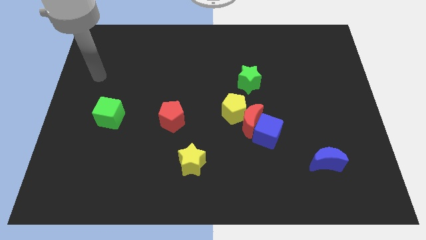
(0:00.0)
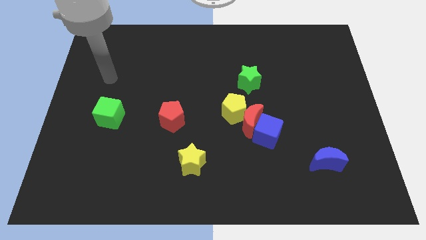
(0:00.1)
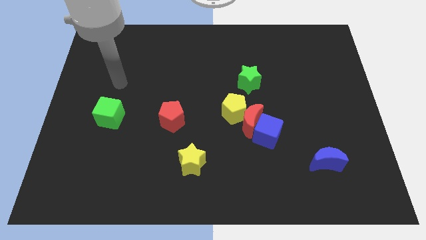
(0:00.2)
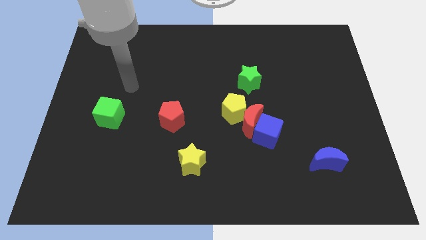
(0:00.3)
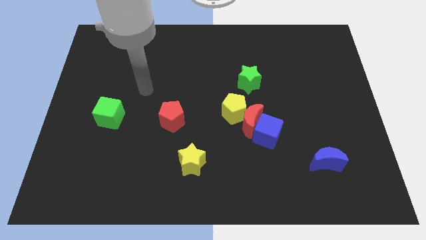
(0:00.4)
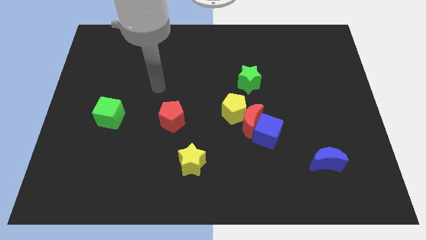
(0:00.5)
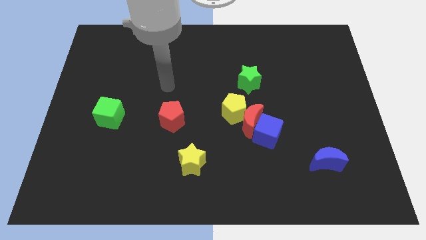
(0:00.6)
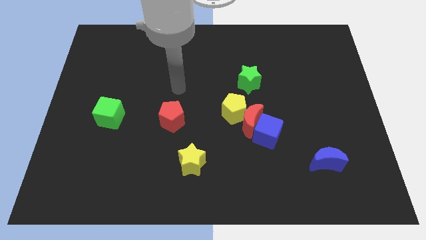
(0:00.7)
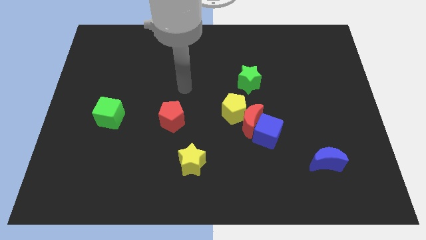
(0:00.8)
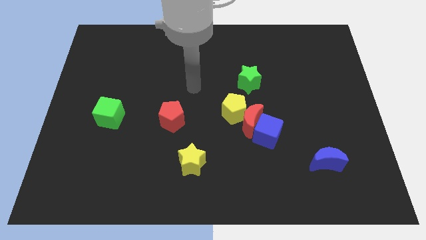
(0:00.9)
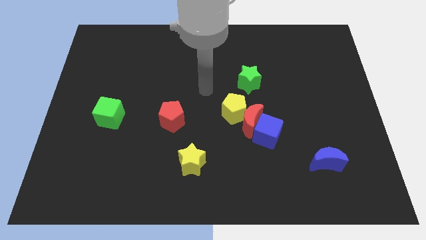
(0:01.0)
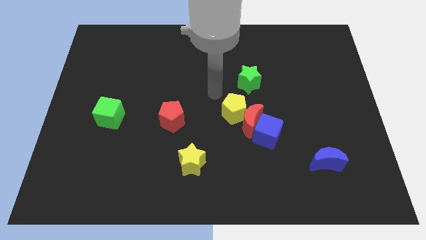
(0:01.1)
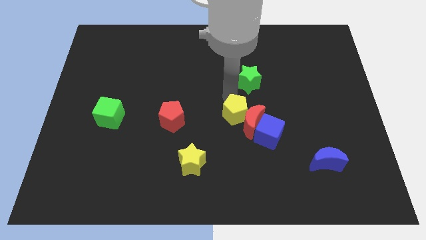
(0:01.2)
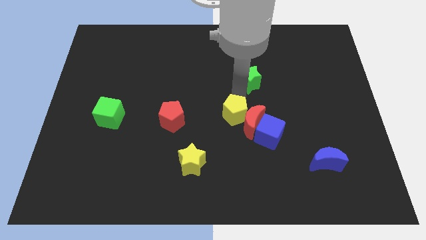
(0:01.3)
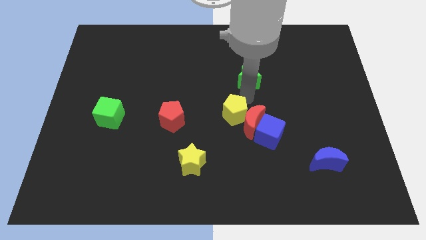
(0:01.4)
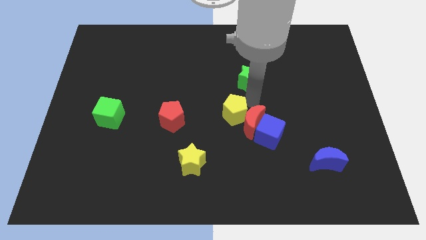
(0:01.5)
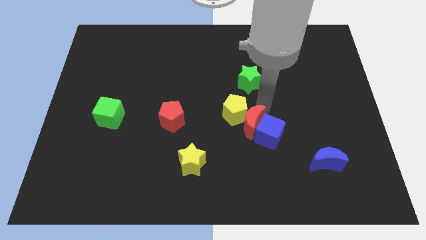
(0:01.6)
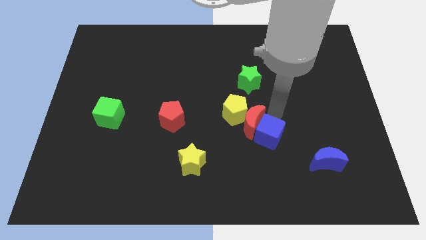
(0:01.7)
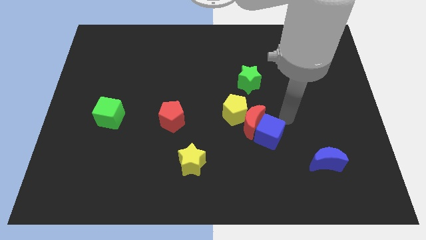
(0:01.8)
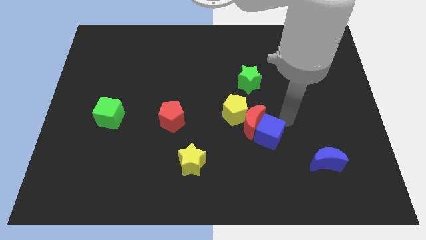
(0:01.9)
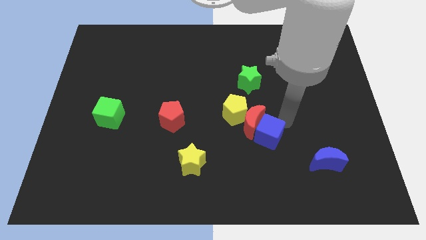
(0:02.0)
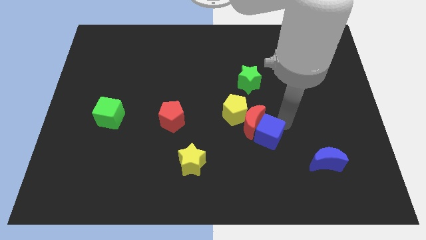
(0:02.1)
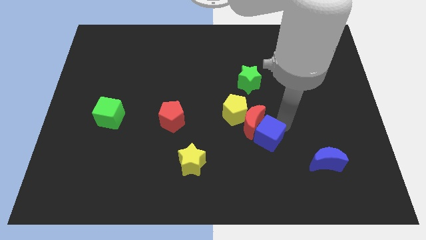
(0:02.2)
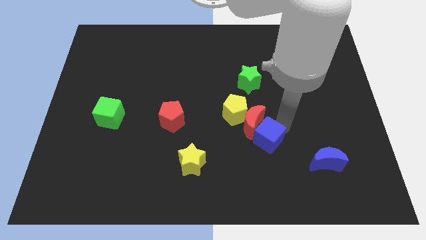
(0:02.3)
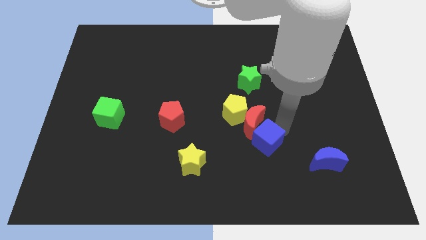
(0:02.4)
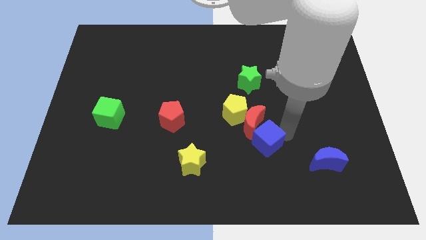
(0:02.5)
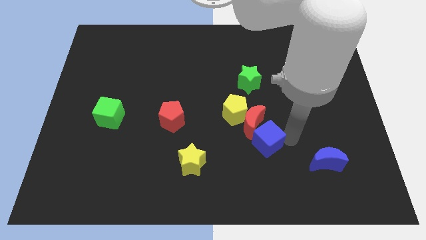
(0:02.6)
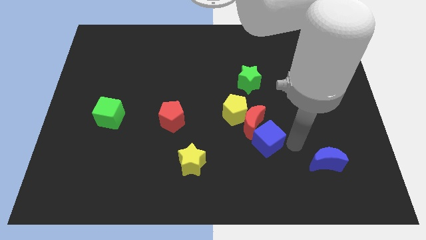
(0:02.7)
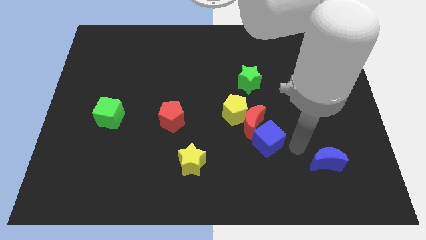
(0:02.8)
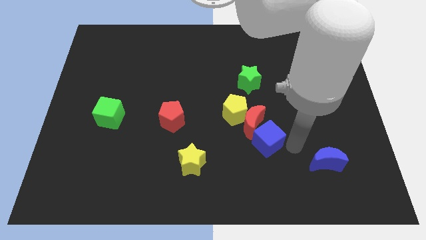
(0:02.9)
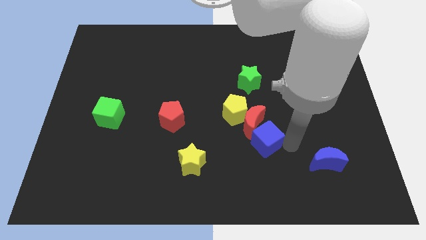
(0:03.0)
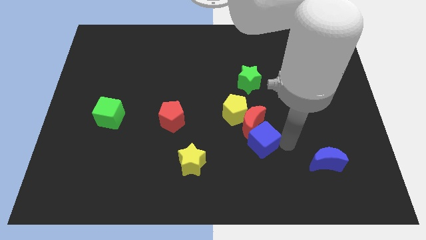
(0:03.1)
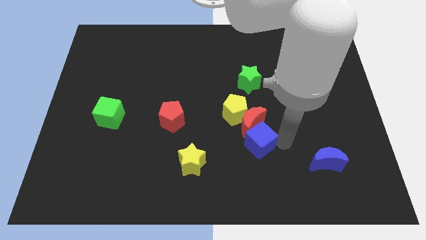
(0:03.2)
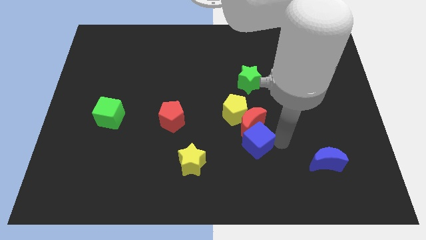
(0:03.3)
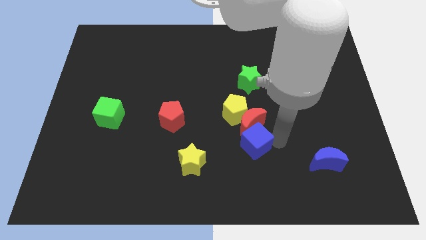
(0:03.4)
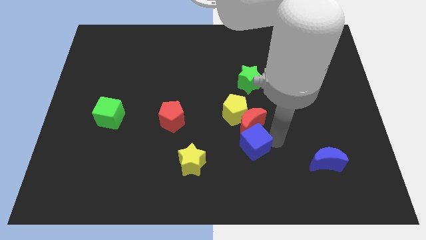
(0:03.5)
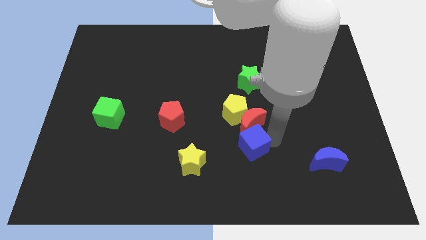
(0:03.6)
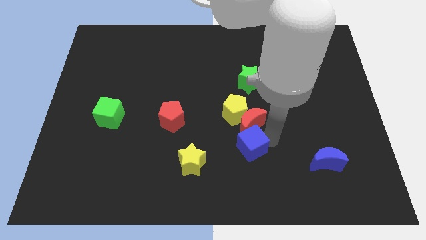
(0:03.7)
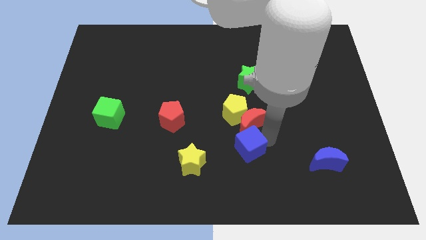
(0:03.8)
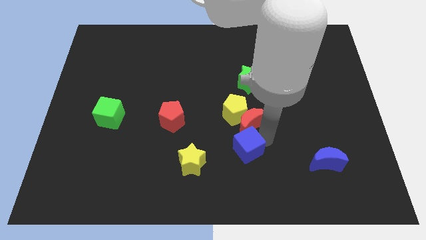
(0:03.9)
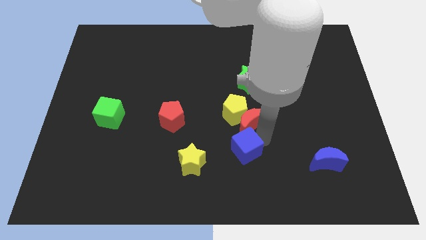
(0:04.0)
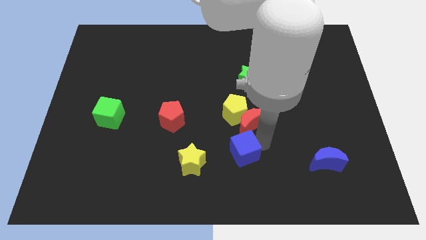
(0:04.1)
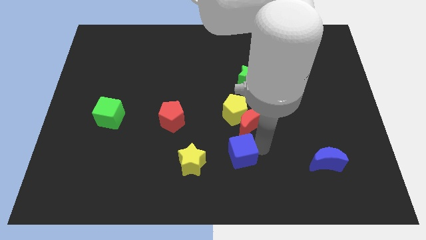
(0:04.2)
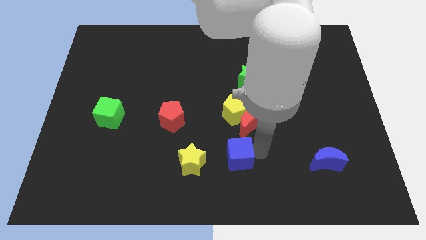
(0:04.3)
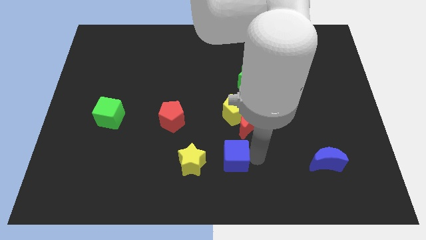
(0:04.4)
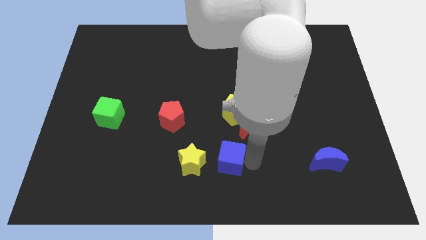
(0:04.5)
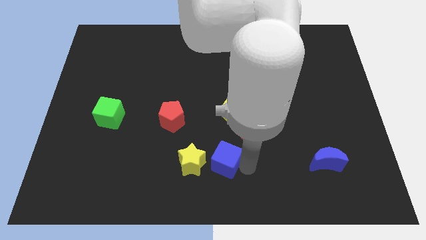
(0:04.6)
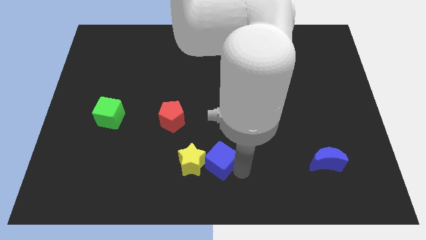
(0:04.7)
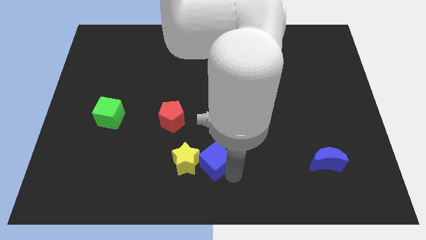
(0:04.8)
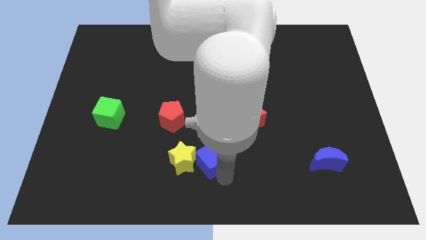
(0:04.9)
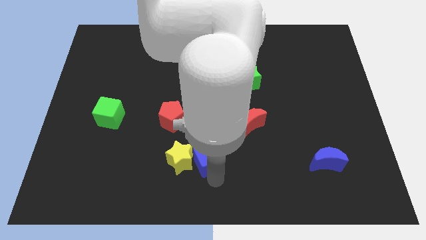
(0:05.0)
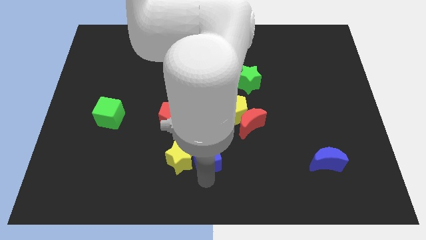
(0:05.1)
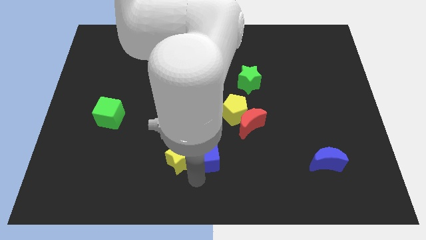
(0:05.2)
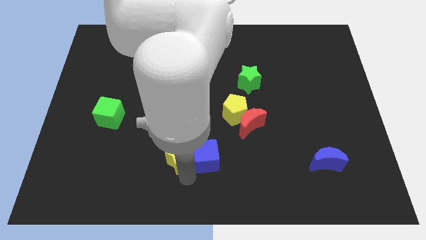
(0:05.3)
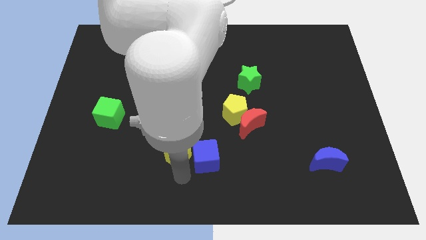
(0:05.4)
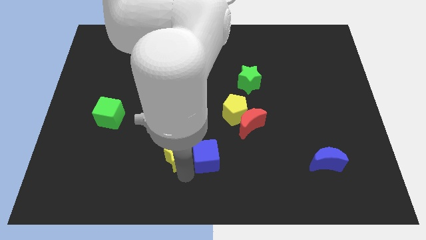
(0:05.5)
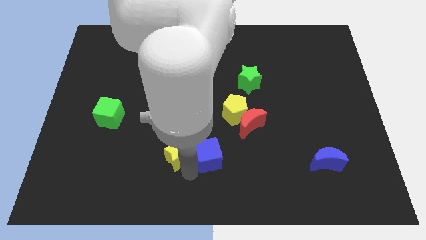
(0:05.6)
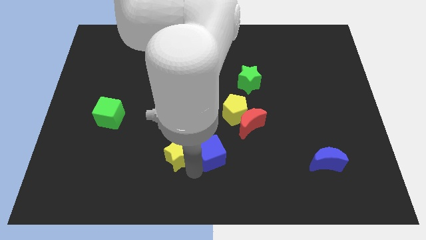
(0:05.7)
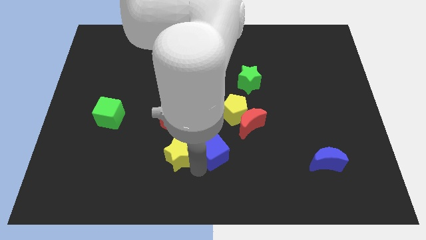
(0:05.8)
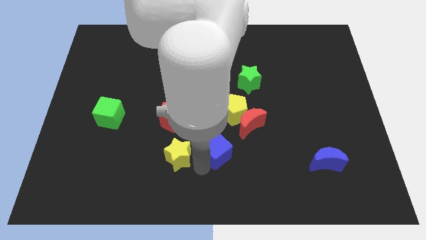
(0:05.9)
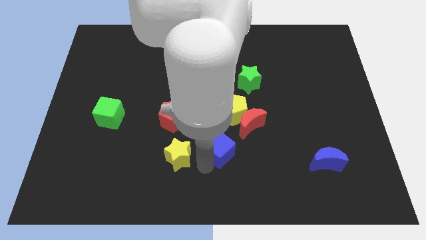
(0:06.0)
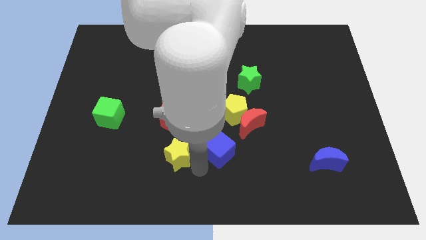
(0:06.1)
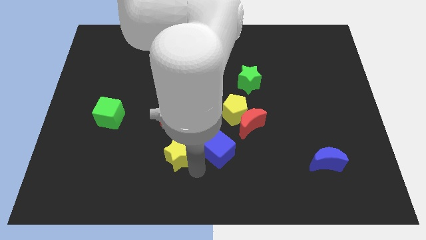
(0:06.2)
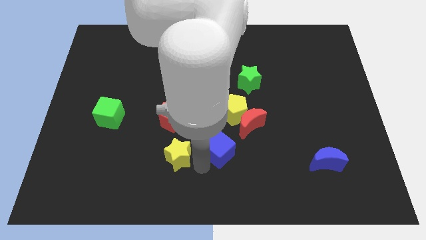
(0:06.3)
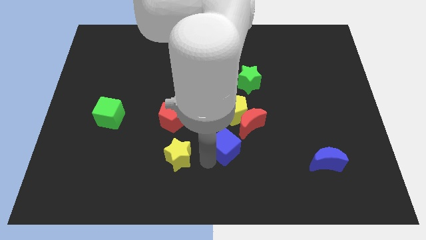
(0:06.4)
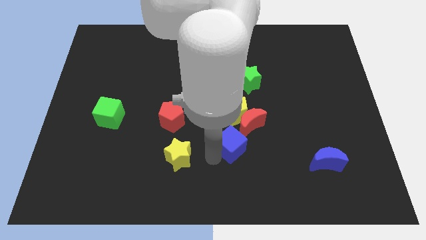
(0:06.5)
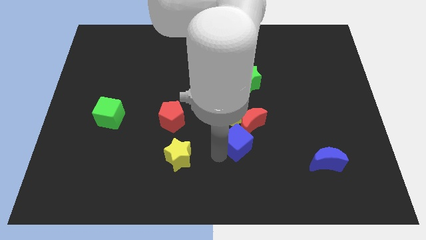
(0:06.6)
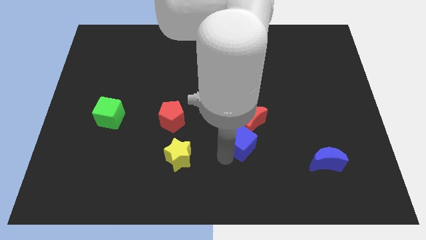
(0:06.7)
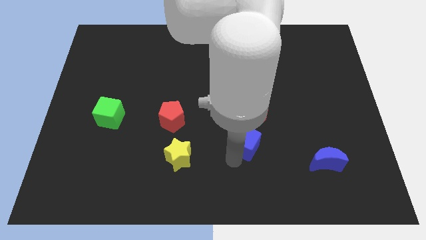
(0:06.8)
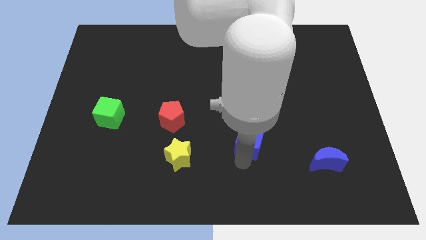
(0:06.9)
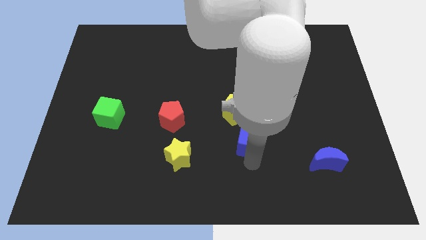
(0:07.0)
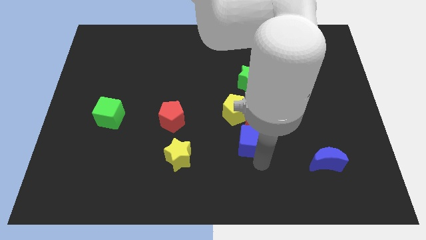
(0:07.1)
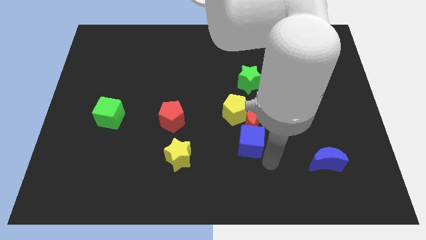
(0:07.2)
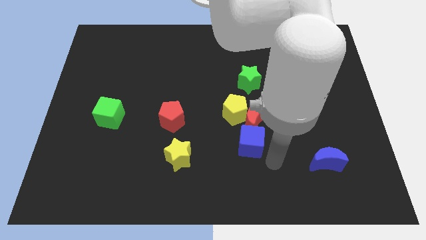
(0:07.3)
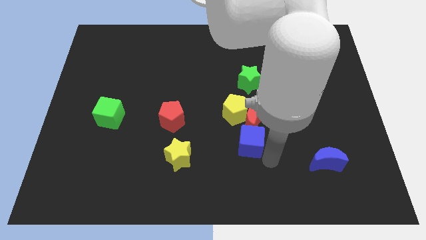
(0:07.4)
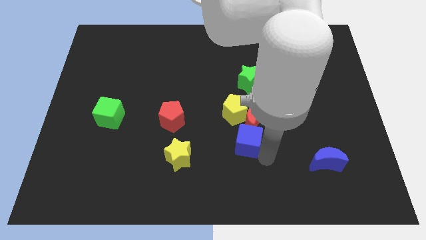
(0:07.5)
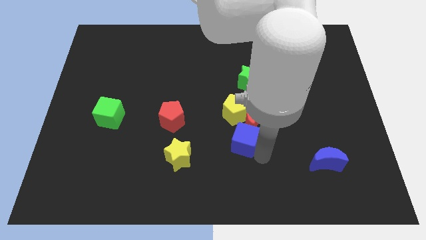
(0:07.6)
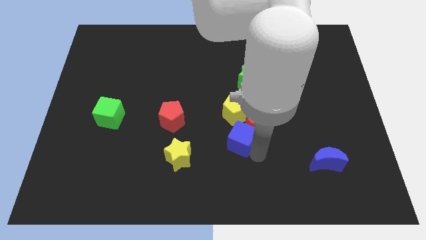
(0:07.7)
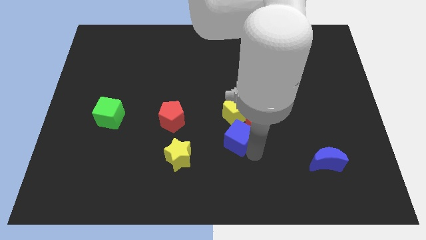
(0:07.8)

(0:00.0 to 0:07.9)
slide the blue cube to the middle of the board
